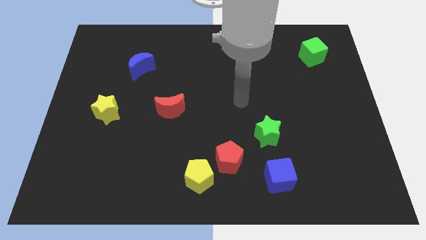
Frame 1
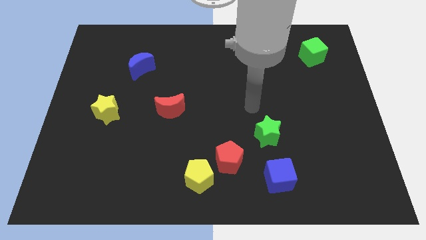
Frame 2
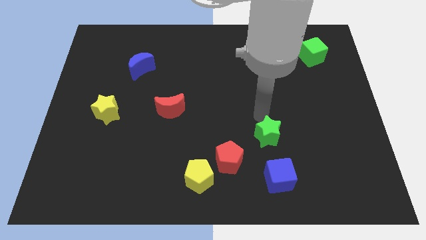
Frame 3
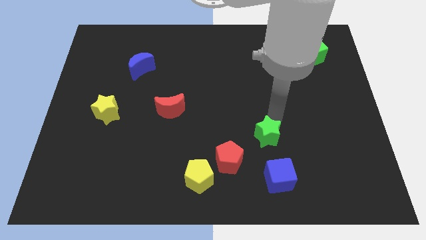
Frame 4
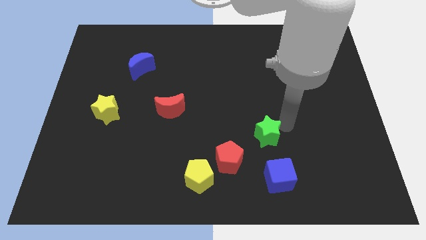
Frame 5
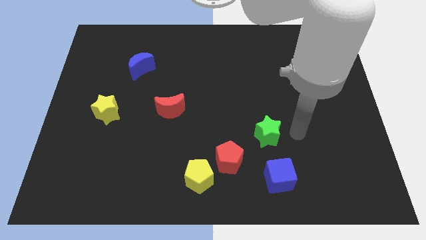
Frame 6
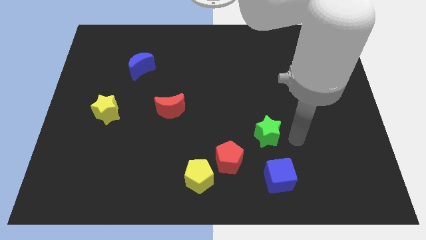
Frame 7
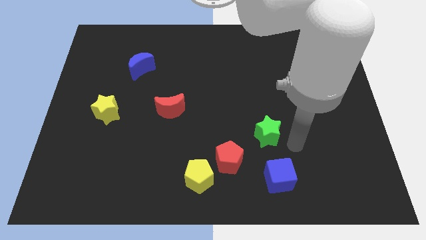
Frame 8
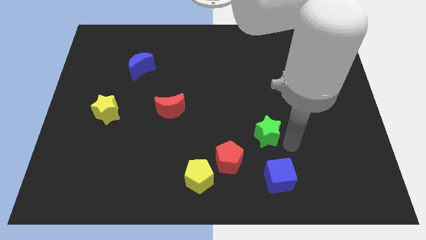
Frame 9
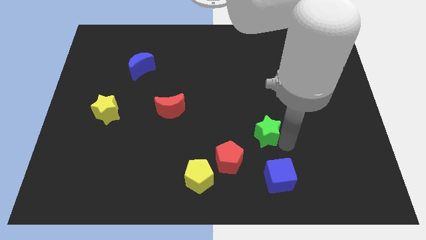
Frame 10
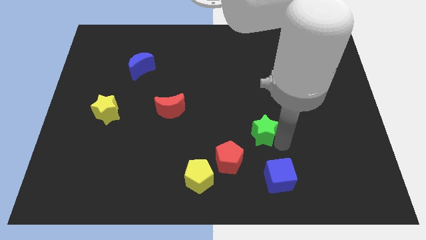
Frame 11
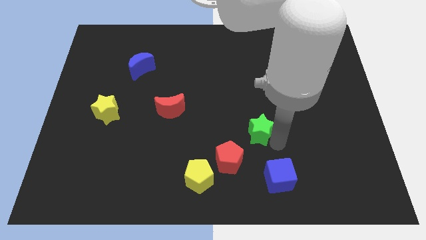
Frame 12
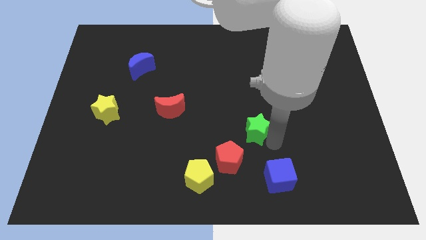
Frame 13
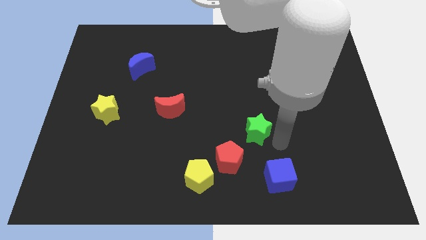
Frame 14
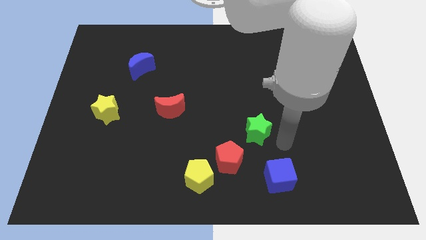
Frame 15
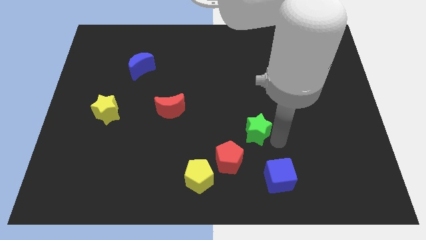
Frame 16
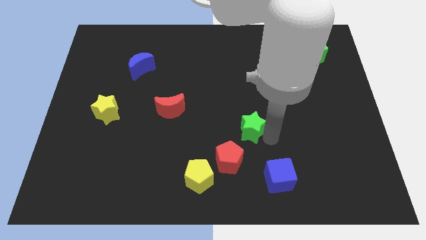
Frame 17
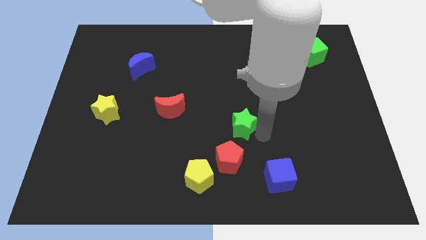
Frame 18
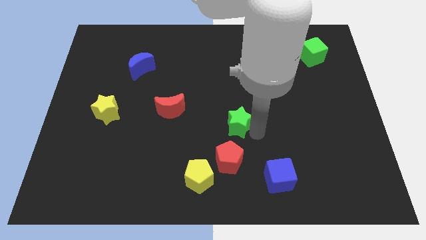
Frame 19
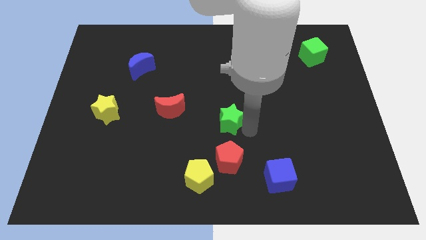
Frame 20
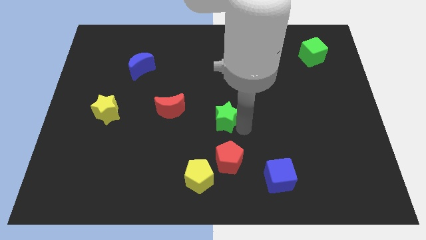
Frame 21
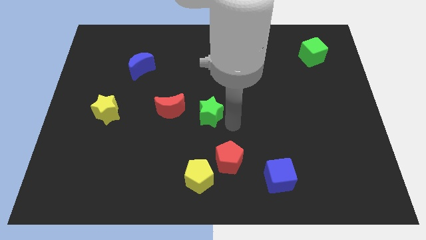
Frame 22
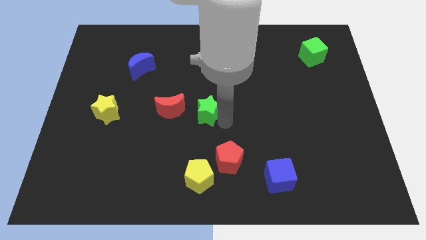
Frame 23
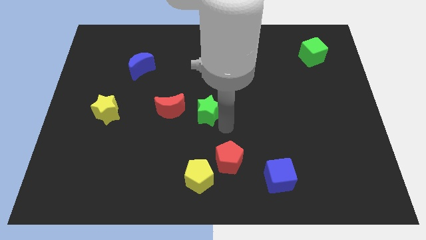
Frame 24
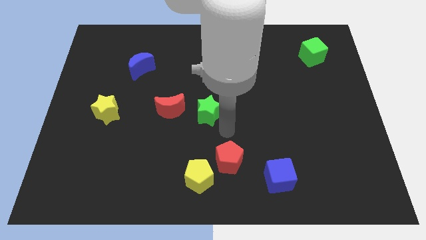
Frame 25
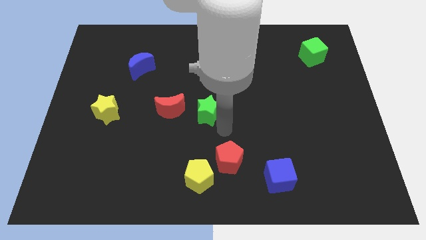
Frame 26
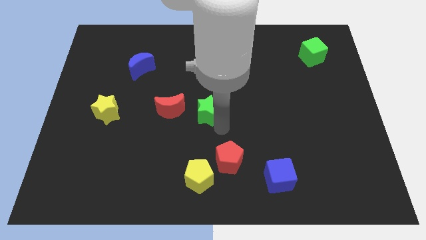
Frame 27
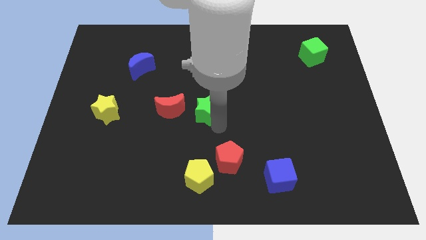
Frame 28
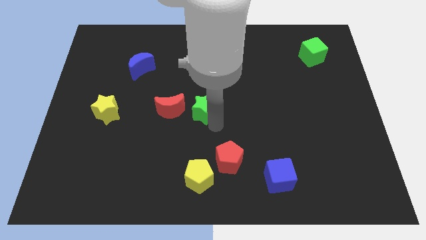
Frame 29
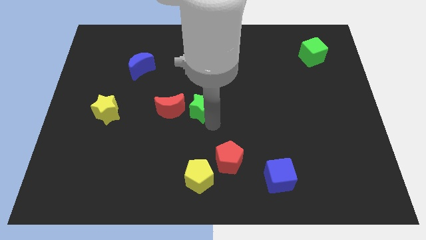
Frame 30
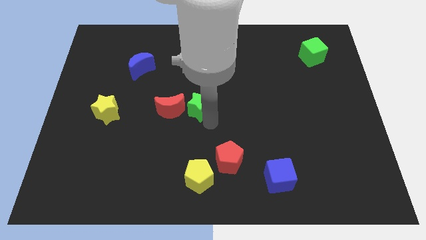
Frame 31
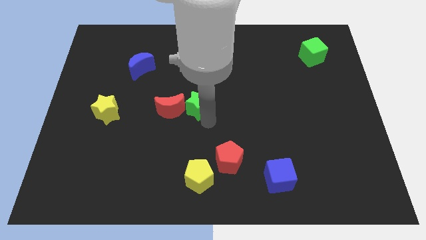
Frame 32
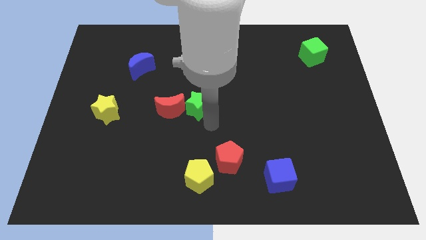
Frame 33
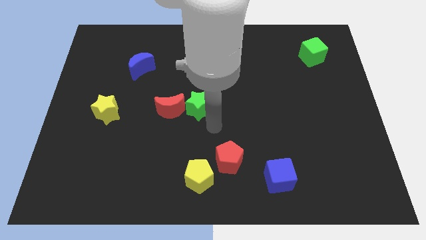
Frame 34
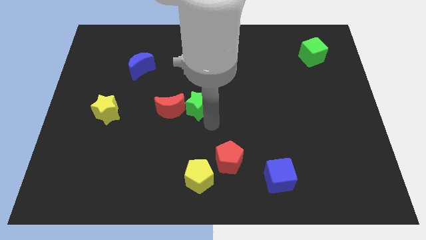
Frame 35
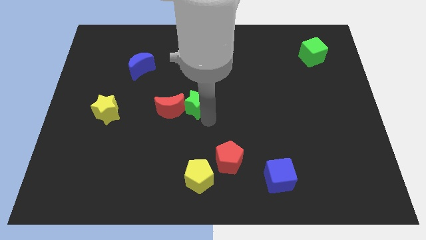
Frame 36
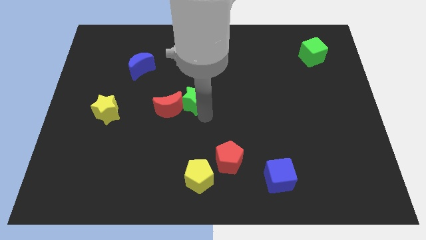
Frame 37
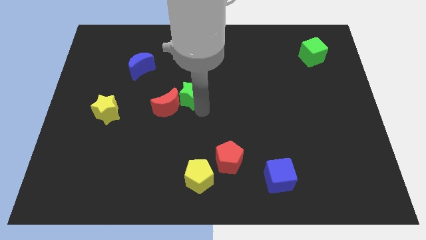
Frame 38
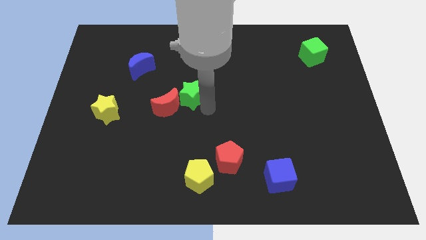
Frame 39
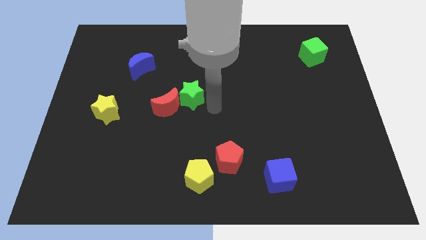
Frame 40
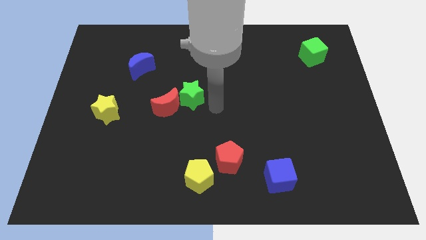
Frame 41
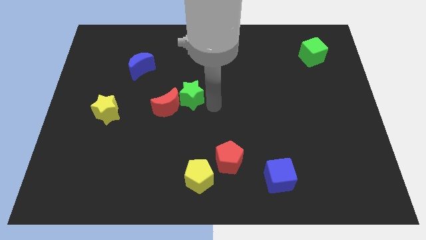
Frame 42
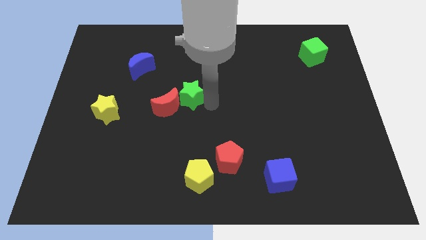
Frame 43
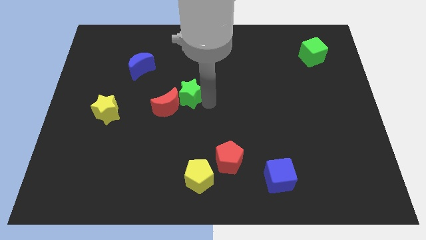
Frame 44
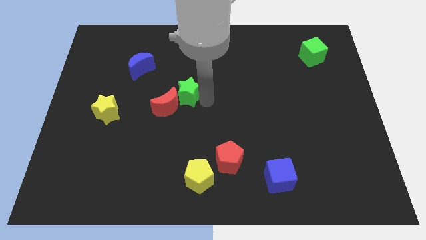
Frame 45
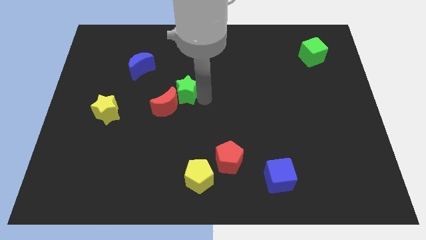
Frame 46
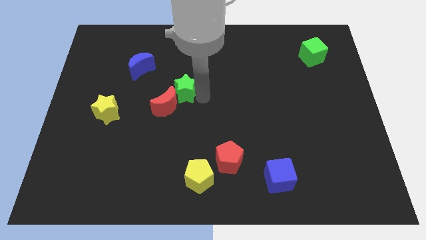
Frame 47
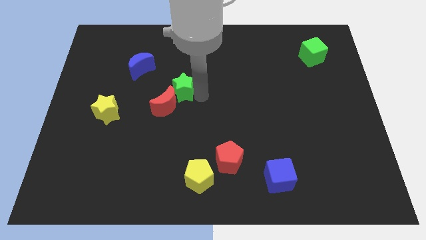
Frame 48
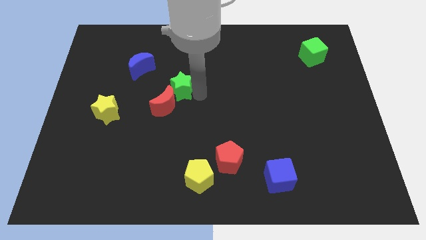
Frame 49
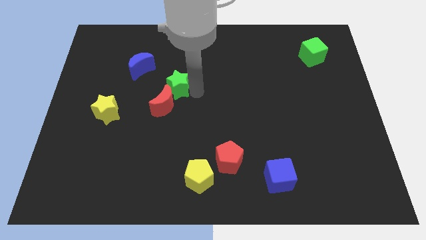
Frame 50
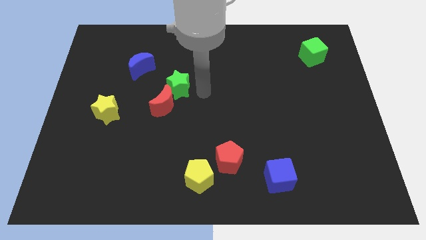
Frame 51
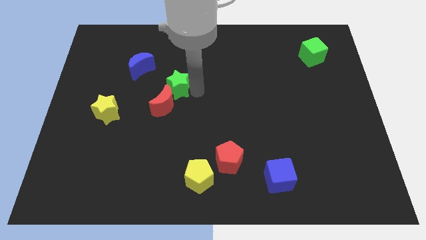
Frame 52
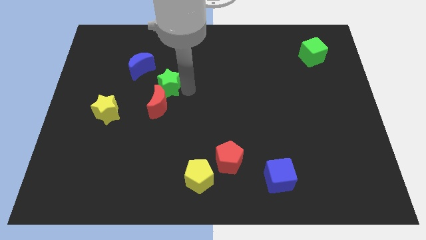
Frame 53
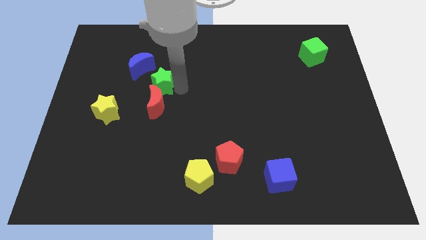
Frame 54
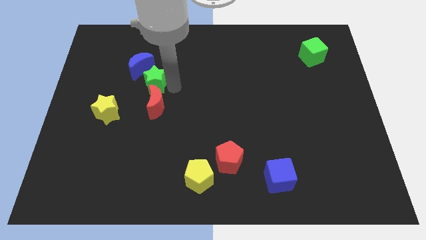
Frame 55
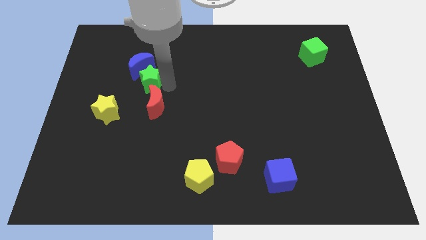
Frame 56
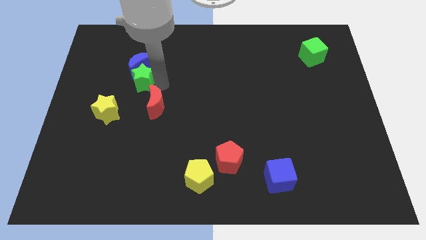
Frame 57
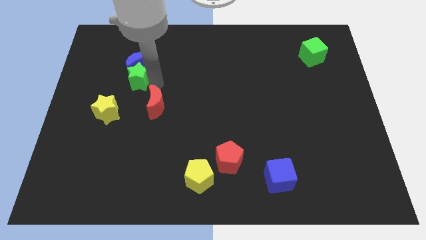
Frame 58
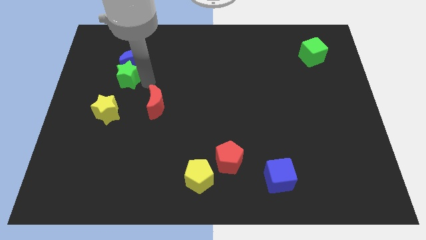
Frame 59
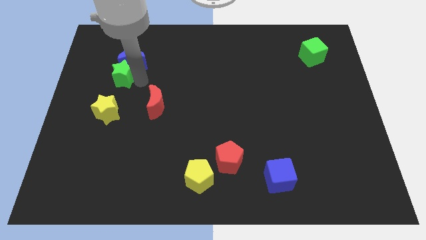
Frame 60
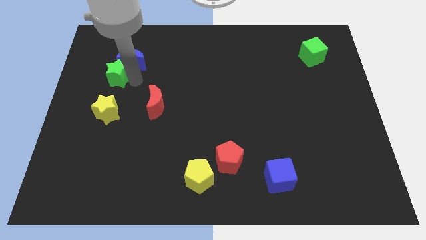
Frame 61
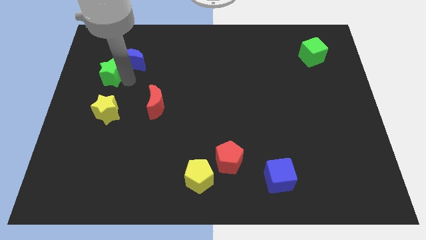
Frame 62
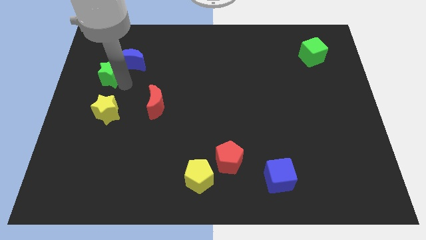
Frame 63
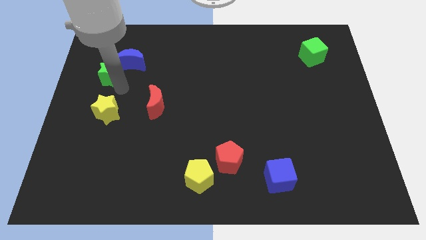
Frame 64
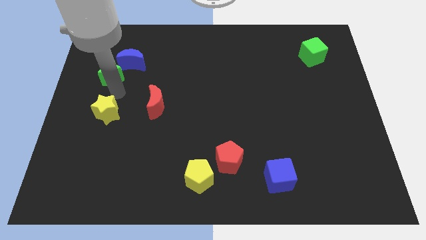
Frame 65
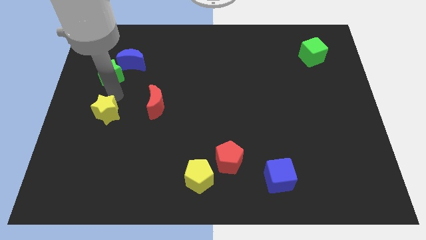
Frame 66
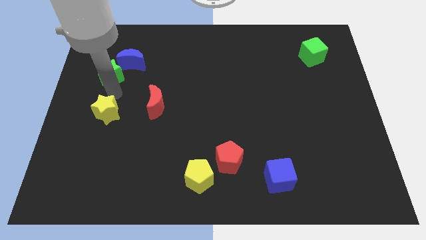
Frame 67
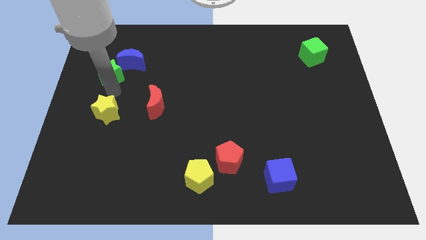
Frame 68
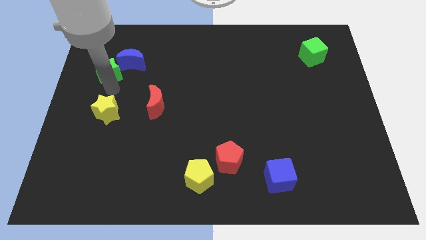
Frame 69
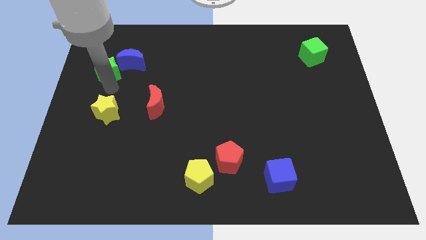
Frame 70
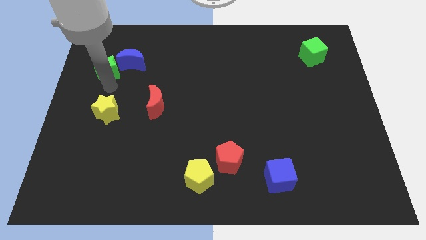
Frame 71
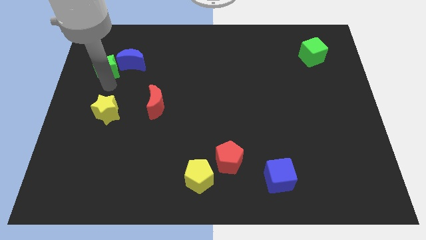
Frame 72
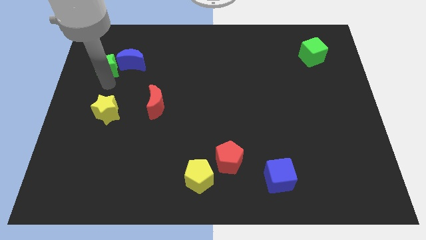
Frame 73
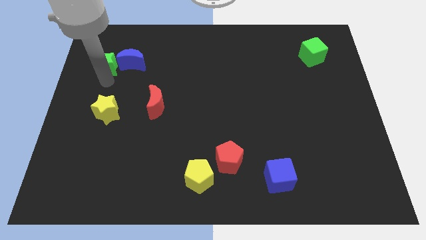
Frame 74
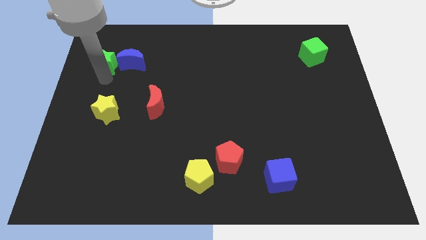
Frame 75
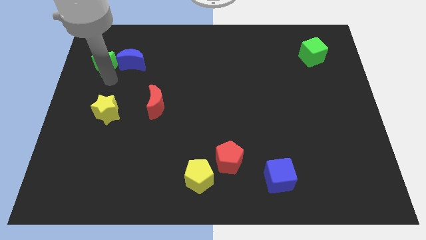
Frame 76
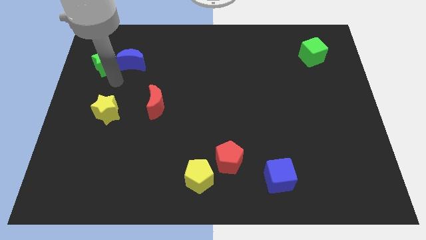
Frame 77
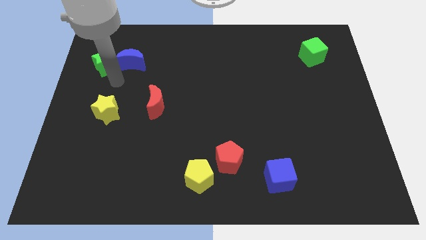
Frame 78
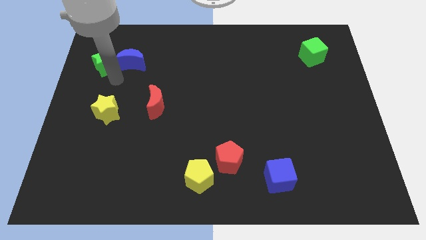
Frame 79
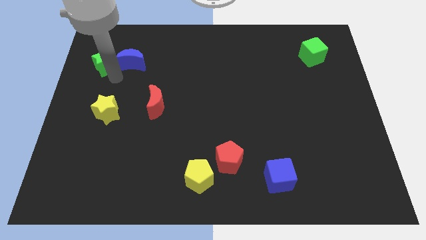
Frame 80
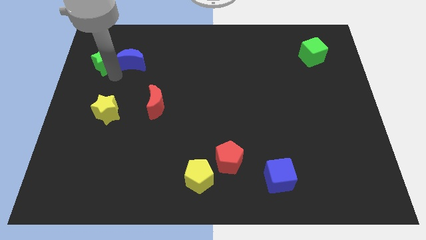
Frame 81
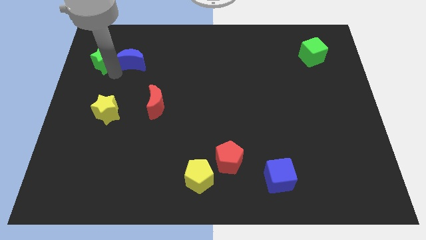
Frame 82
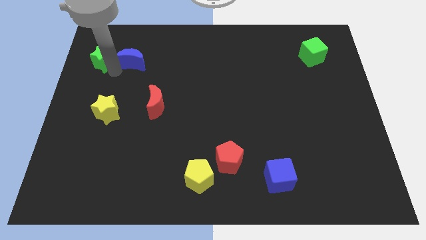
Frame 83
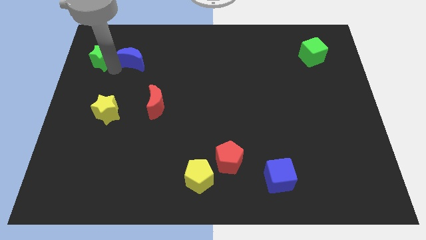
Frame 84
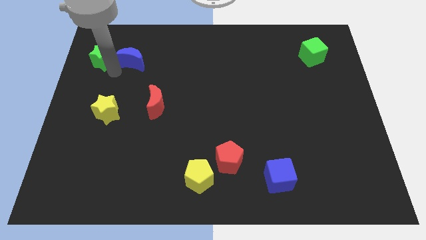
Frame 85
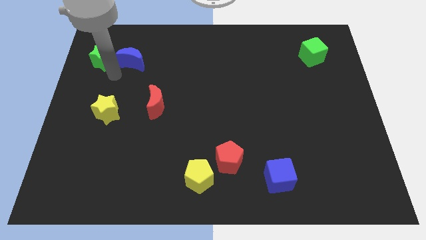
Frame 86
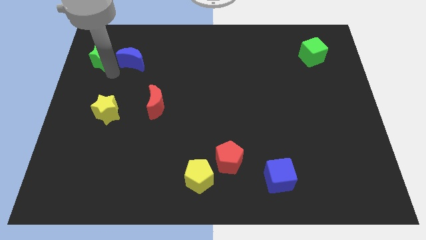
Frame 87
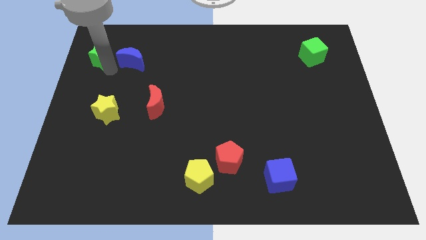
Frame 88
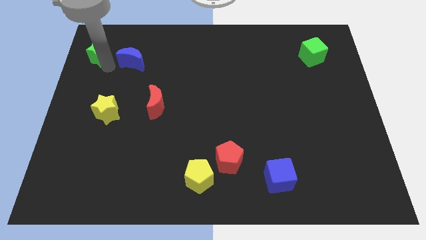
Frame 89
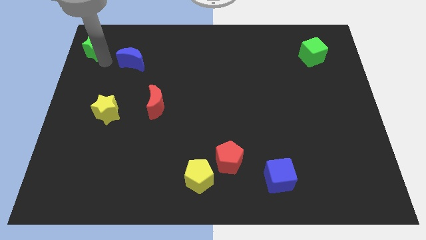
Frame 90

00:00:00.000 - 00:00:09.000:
move the green star to the upper left corner
